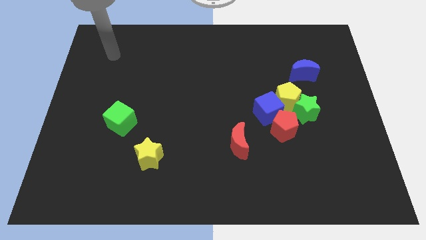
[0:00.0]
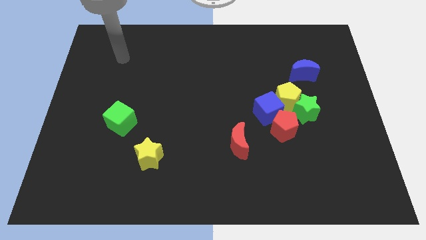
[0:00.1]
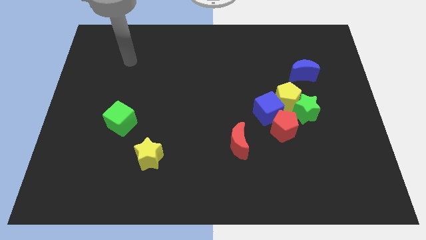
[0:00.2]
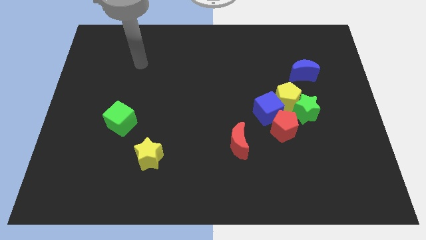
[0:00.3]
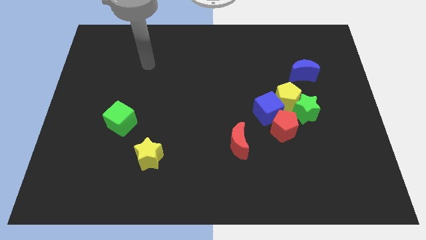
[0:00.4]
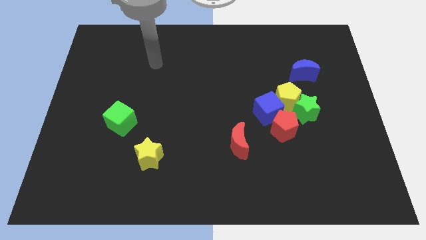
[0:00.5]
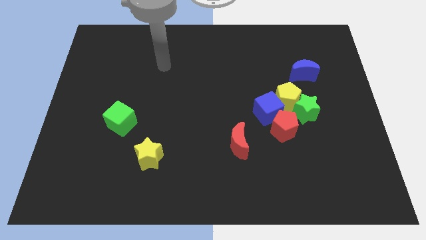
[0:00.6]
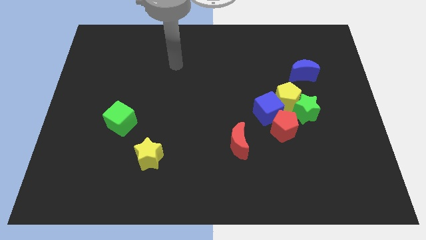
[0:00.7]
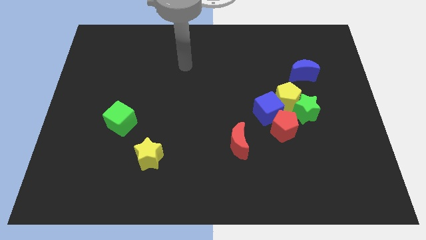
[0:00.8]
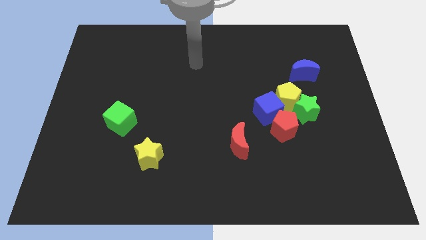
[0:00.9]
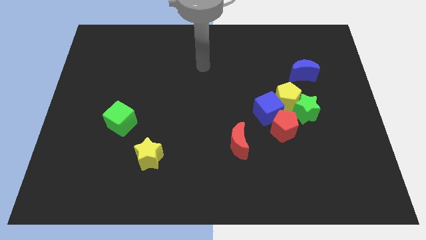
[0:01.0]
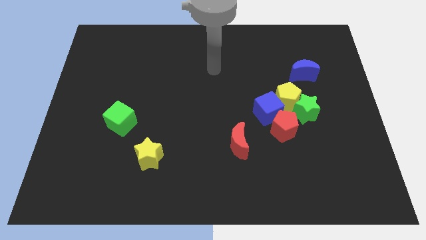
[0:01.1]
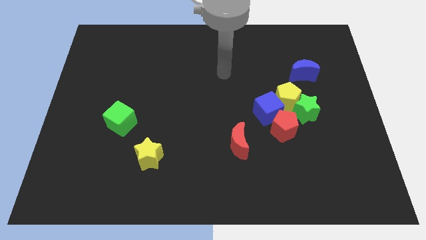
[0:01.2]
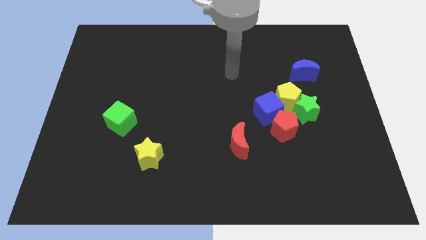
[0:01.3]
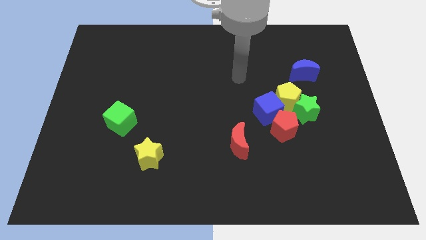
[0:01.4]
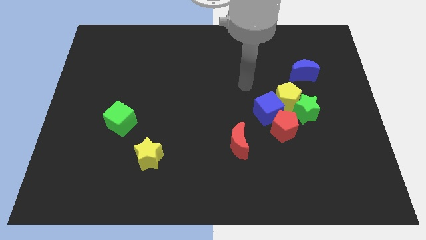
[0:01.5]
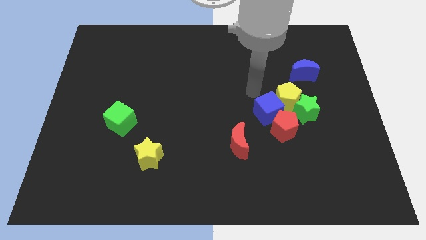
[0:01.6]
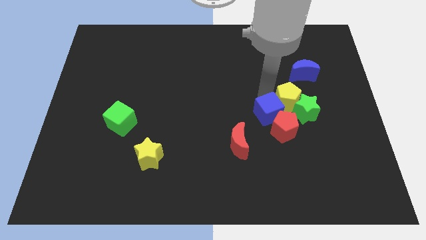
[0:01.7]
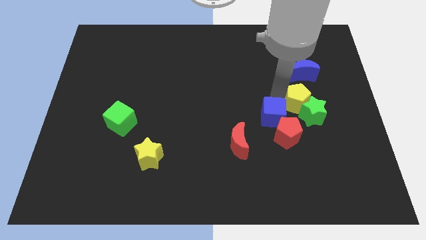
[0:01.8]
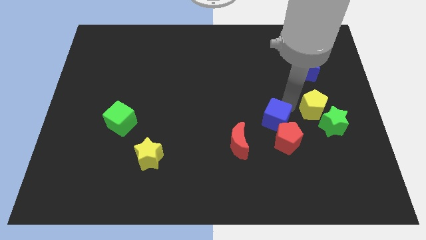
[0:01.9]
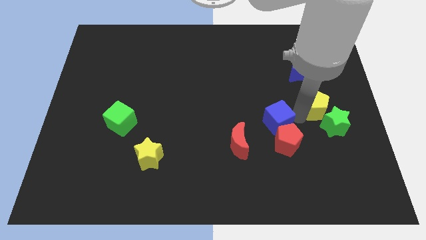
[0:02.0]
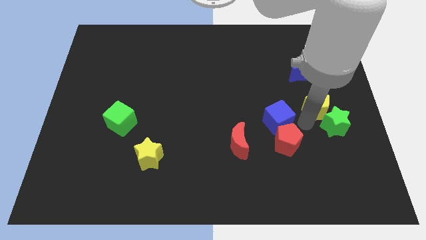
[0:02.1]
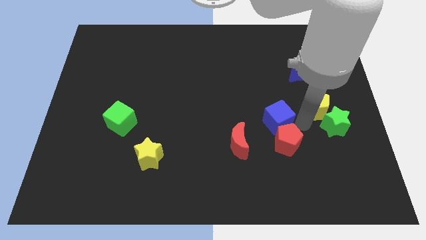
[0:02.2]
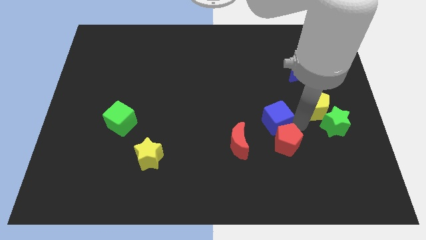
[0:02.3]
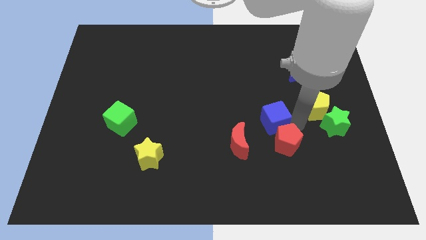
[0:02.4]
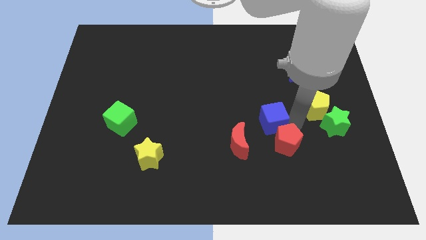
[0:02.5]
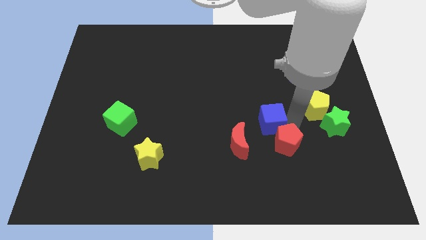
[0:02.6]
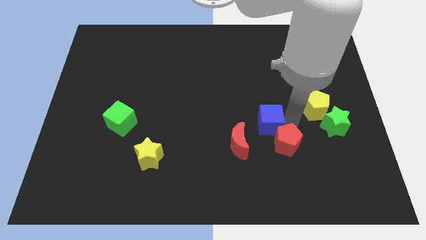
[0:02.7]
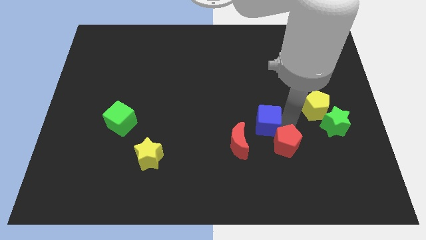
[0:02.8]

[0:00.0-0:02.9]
move the blue cube away from the red pentagon, yellow pentagon, and green star

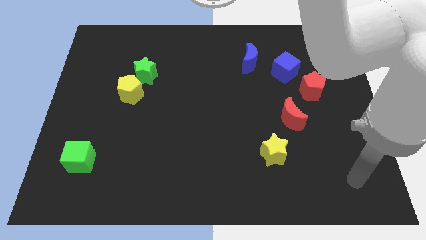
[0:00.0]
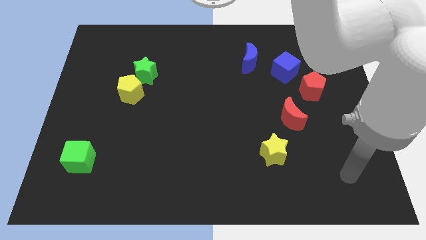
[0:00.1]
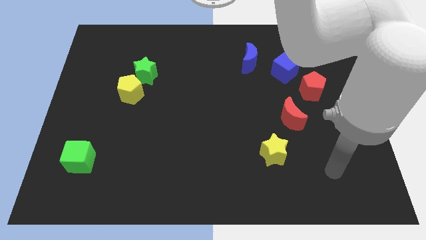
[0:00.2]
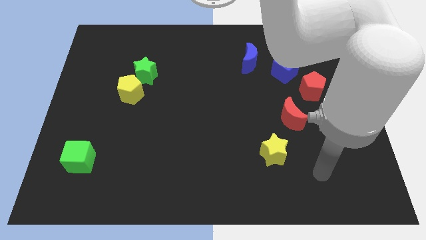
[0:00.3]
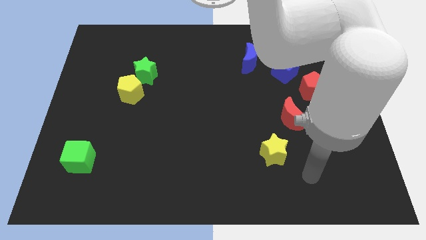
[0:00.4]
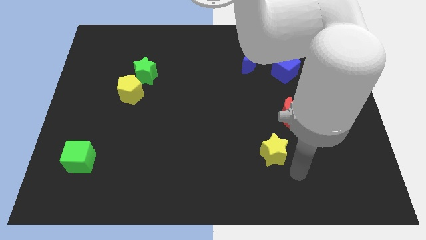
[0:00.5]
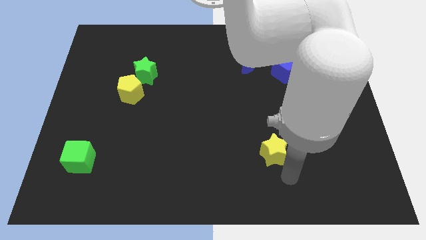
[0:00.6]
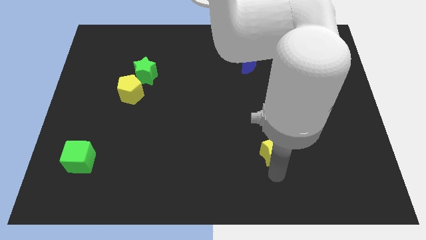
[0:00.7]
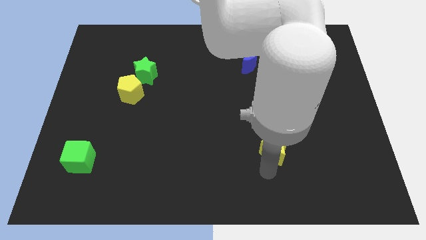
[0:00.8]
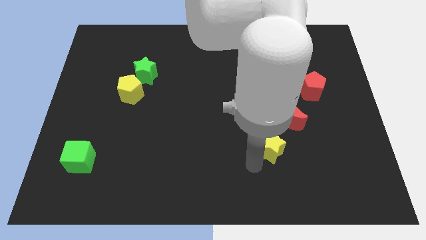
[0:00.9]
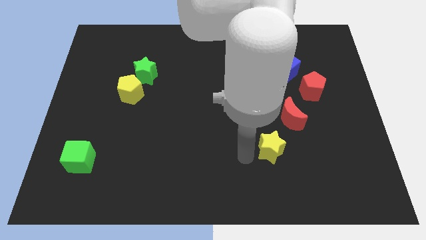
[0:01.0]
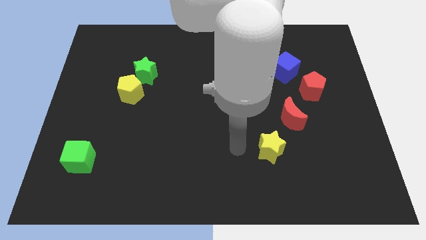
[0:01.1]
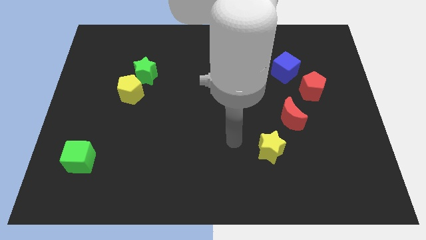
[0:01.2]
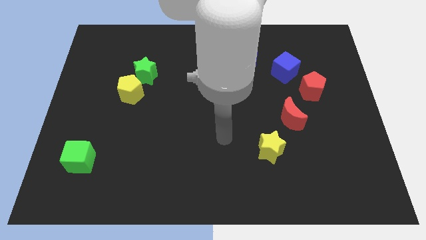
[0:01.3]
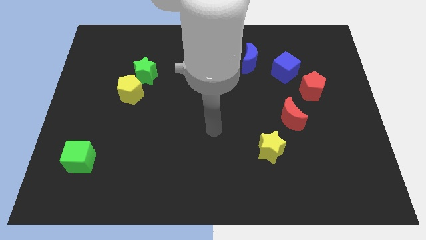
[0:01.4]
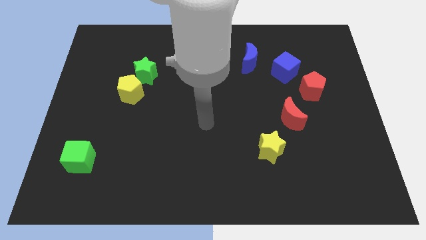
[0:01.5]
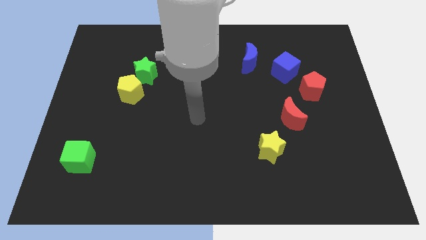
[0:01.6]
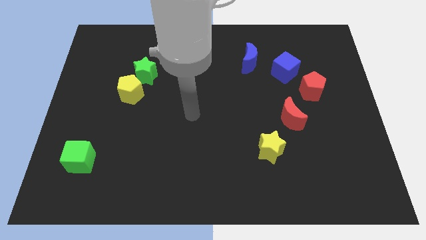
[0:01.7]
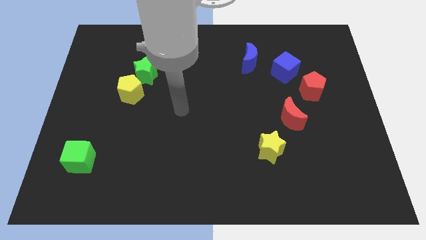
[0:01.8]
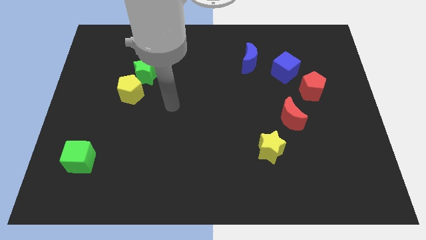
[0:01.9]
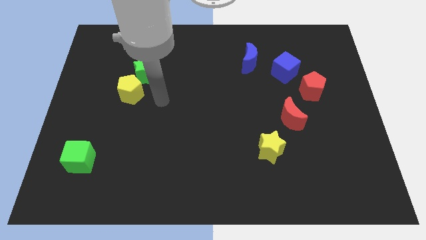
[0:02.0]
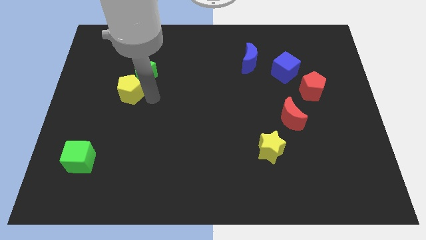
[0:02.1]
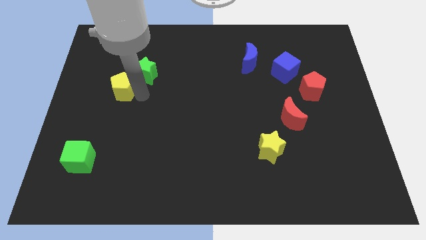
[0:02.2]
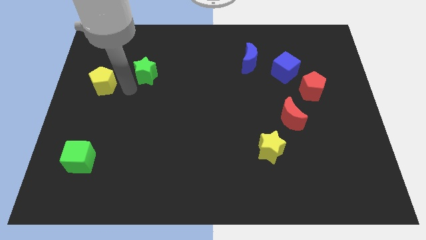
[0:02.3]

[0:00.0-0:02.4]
move the green star away from the yellow pentagon

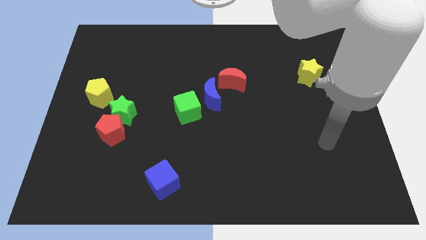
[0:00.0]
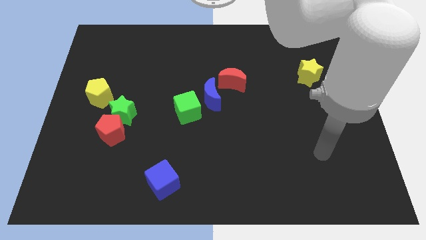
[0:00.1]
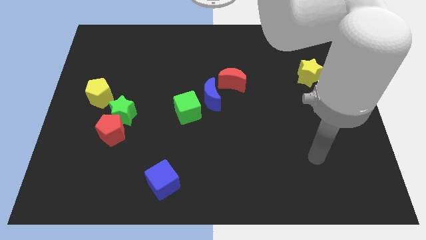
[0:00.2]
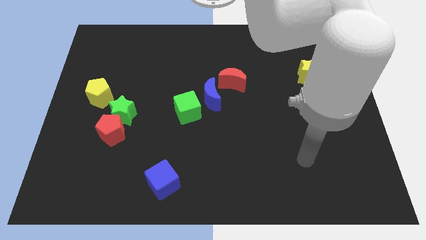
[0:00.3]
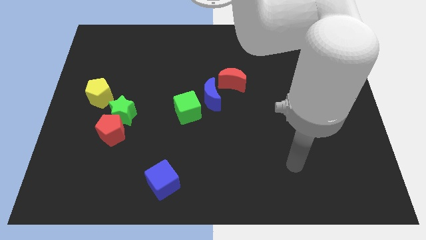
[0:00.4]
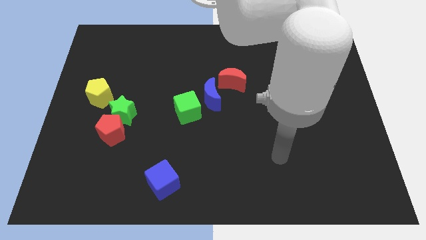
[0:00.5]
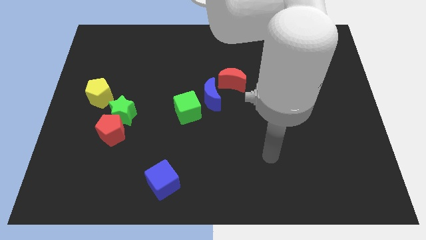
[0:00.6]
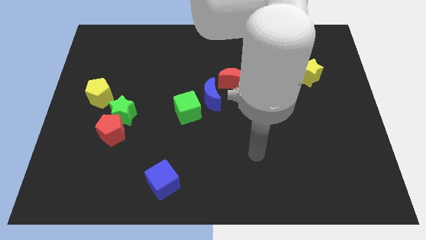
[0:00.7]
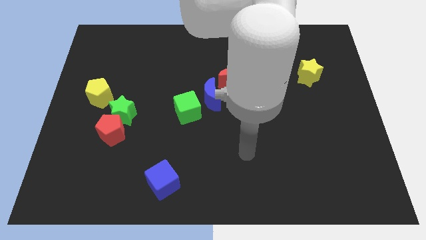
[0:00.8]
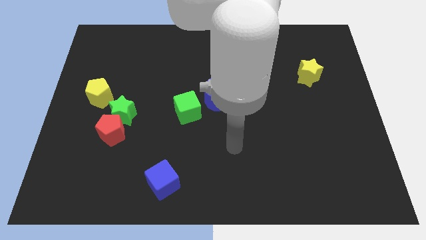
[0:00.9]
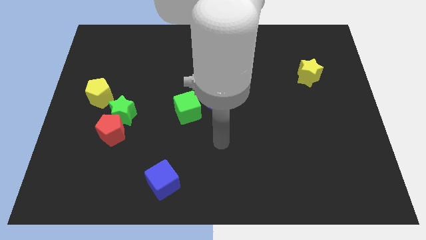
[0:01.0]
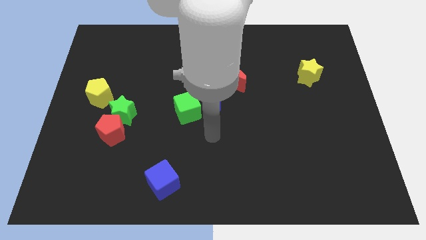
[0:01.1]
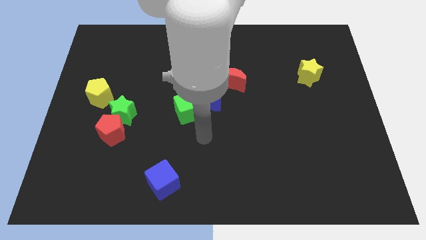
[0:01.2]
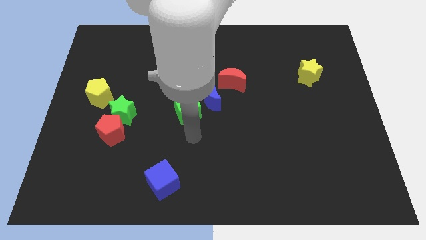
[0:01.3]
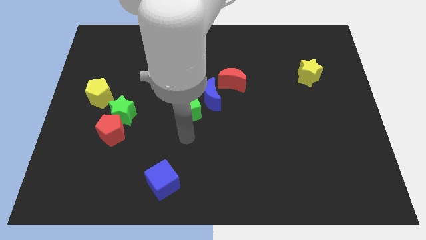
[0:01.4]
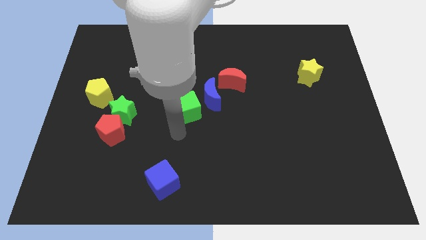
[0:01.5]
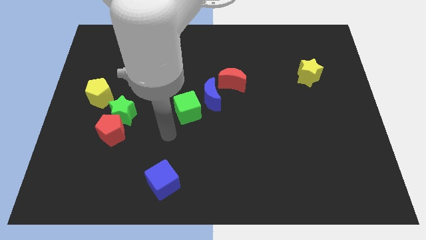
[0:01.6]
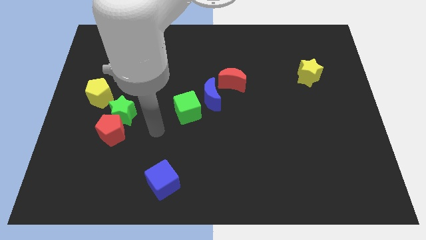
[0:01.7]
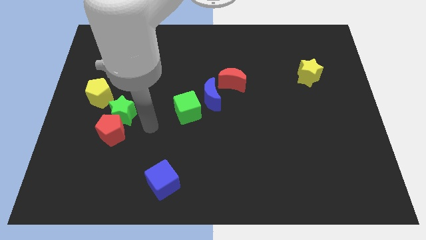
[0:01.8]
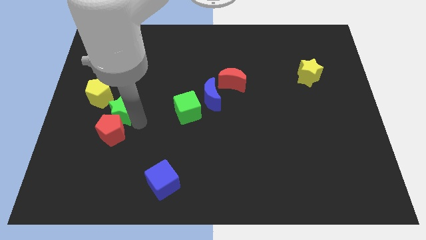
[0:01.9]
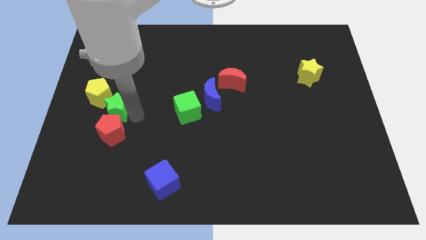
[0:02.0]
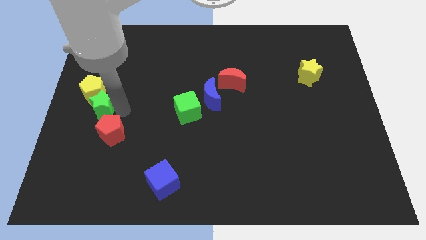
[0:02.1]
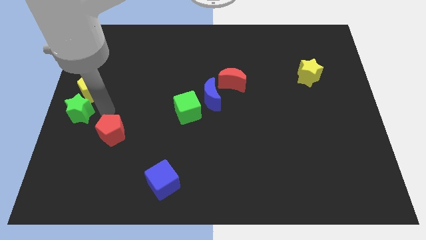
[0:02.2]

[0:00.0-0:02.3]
pull the red pentagon apart from the green star

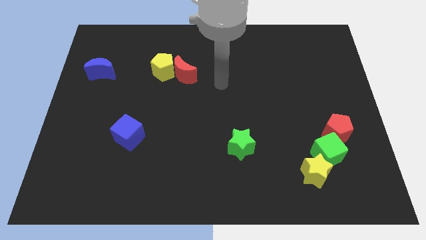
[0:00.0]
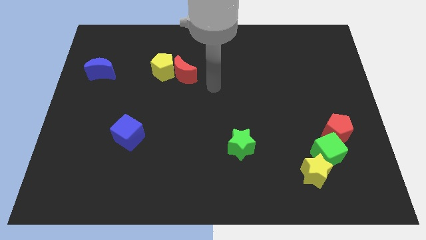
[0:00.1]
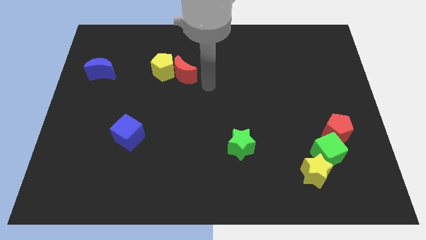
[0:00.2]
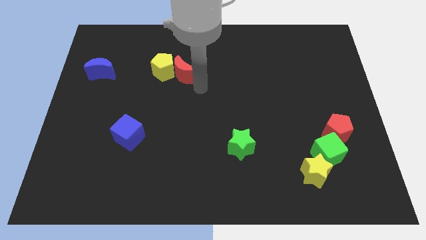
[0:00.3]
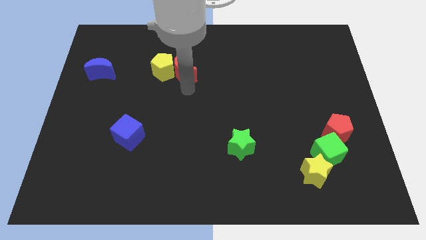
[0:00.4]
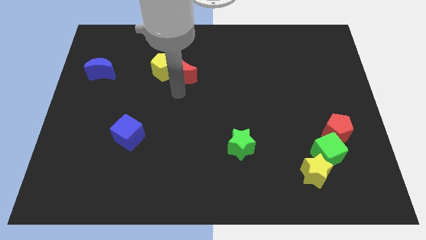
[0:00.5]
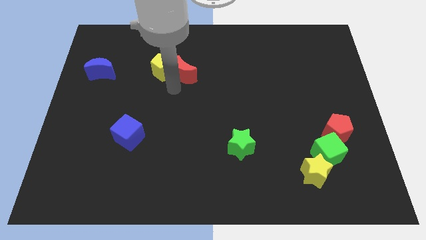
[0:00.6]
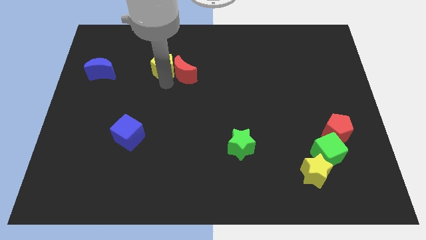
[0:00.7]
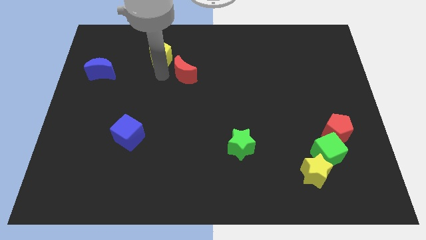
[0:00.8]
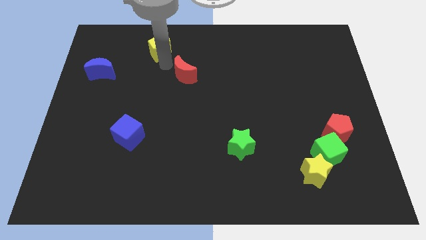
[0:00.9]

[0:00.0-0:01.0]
separate the red moon from the yellow pentagon

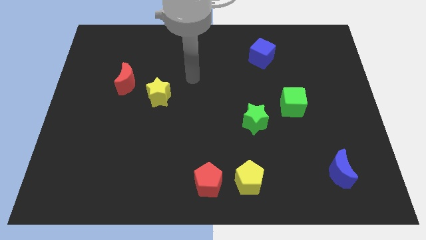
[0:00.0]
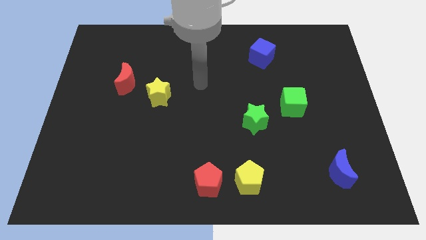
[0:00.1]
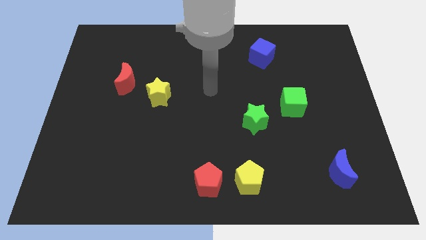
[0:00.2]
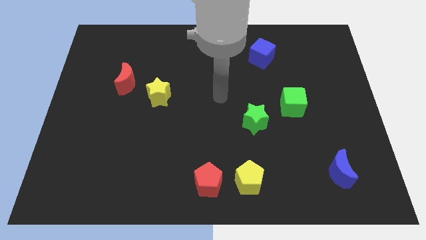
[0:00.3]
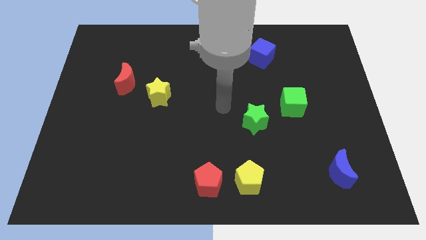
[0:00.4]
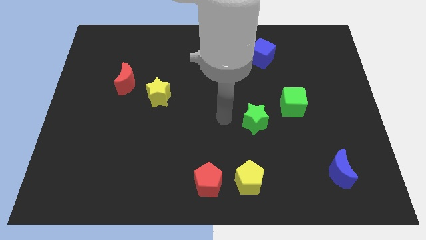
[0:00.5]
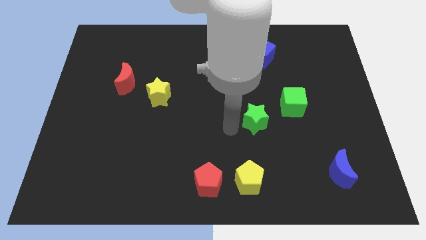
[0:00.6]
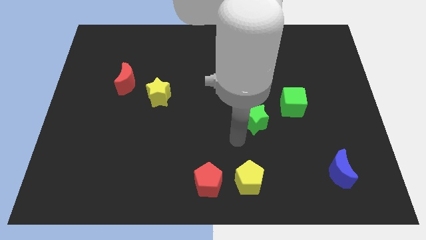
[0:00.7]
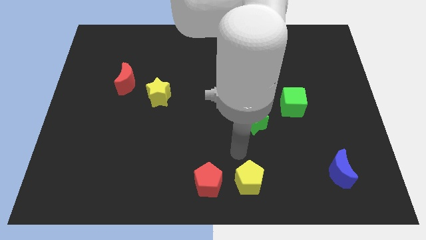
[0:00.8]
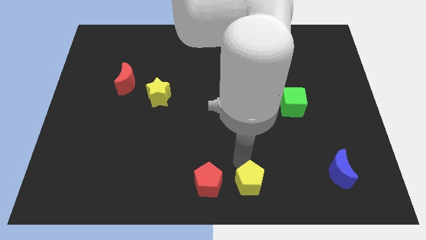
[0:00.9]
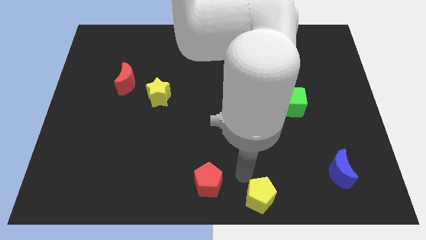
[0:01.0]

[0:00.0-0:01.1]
pull the red pentagon apart from the yellow pentagon
